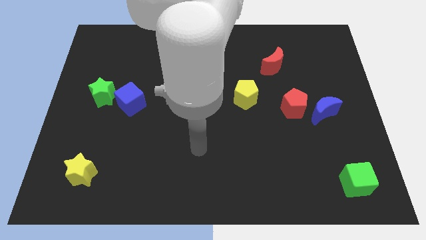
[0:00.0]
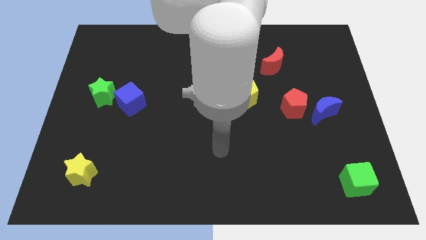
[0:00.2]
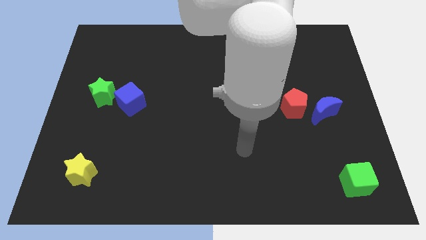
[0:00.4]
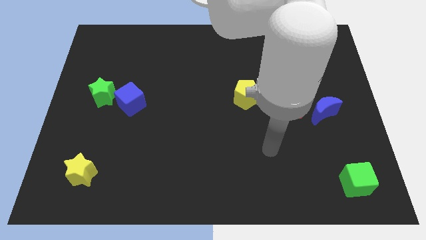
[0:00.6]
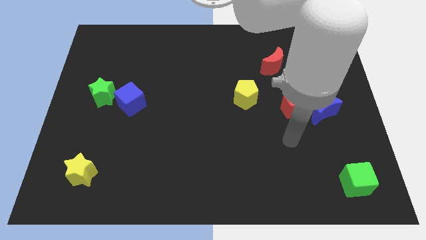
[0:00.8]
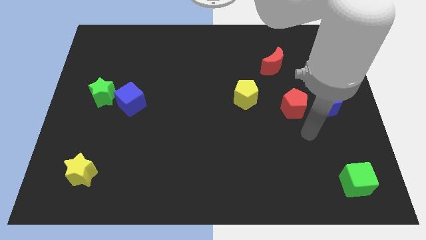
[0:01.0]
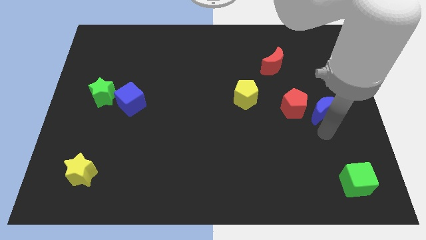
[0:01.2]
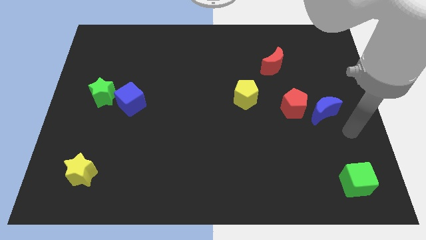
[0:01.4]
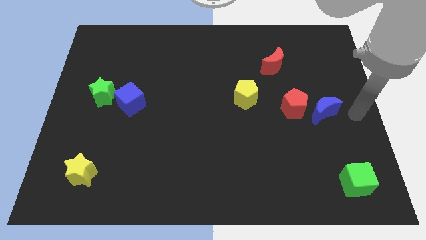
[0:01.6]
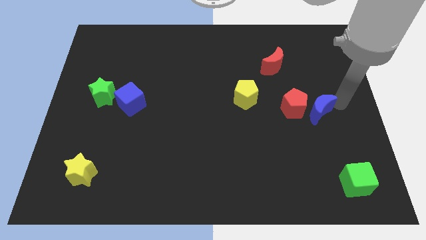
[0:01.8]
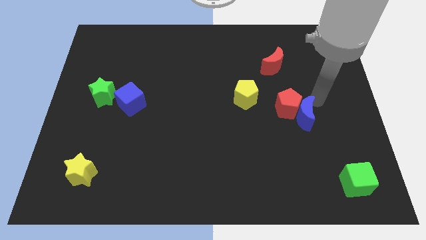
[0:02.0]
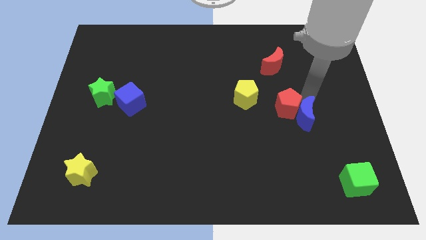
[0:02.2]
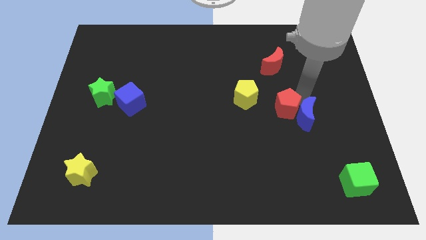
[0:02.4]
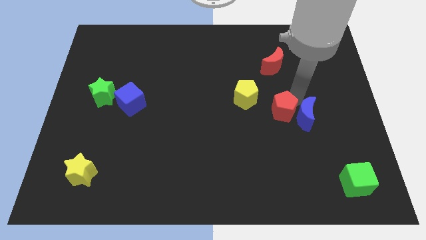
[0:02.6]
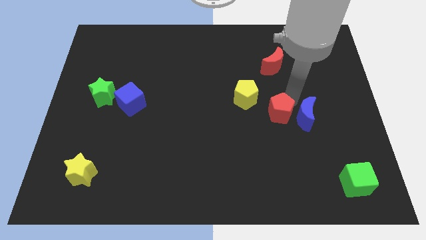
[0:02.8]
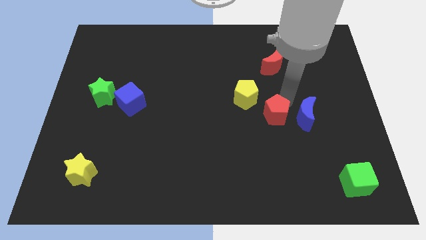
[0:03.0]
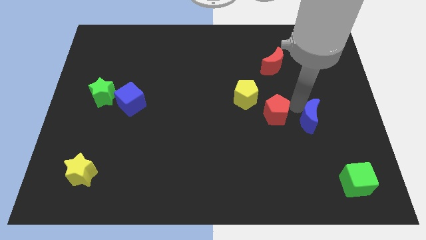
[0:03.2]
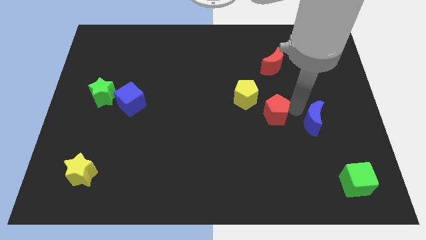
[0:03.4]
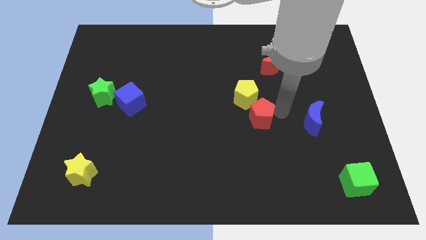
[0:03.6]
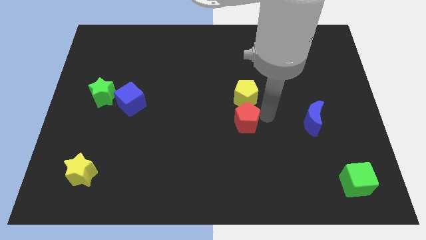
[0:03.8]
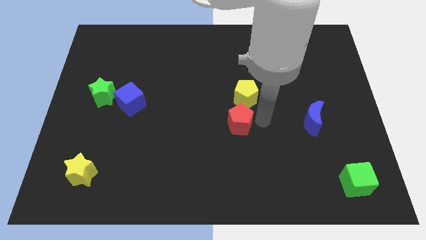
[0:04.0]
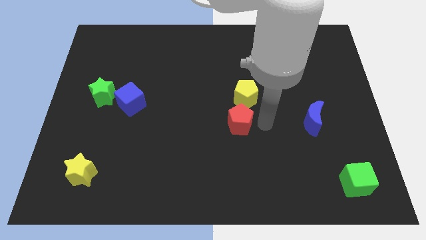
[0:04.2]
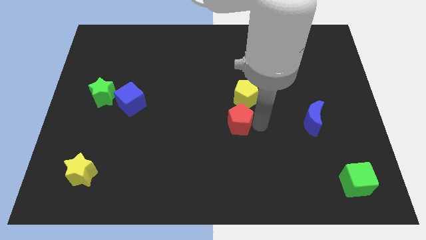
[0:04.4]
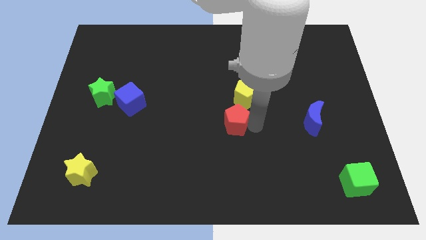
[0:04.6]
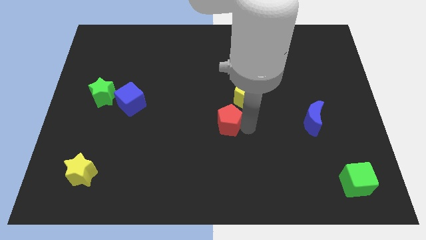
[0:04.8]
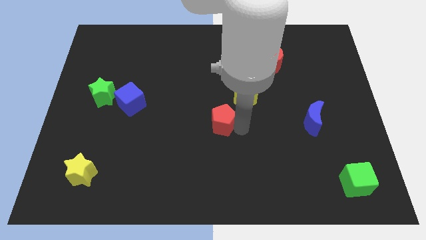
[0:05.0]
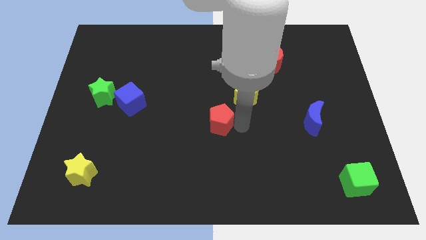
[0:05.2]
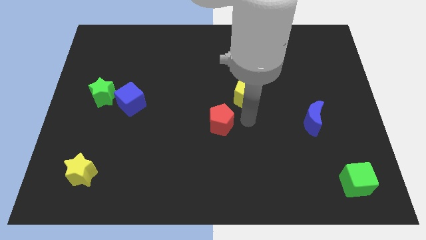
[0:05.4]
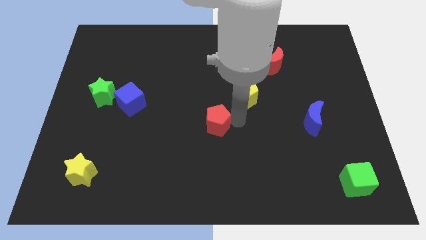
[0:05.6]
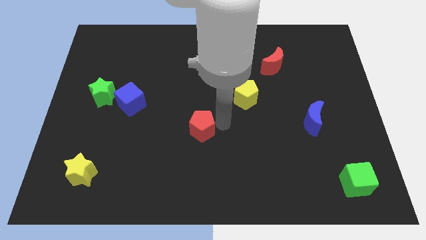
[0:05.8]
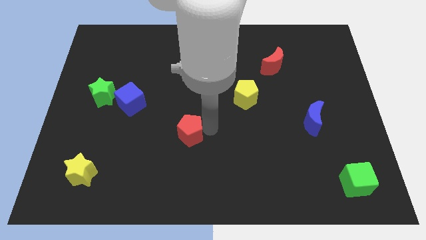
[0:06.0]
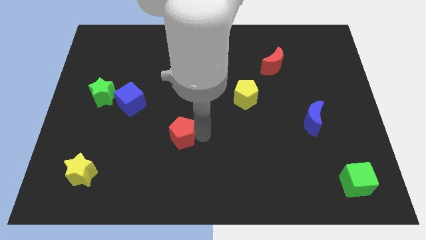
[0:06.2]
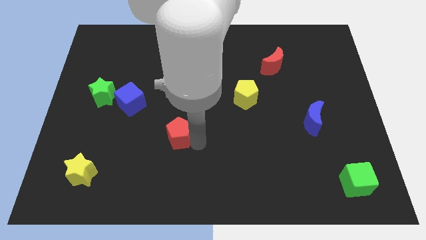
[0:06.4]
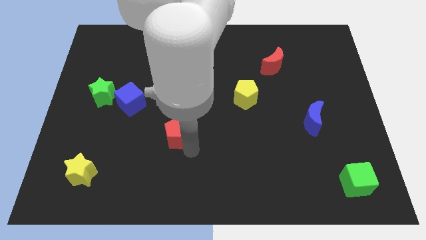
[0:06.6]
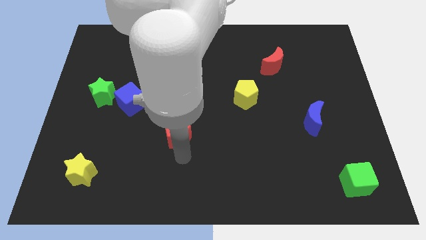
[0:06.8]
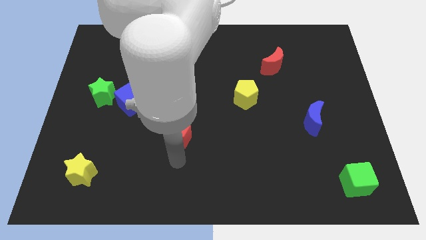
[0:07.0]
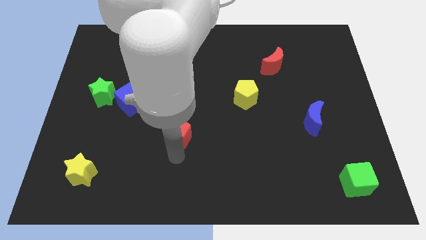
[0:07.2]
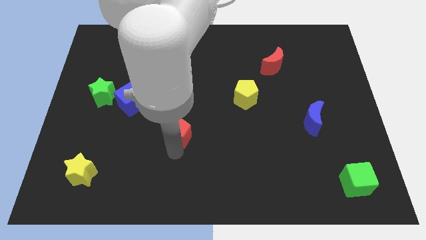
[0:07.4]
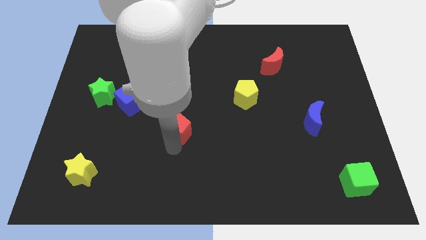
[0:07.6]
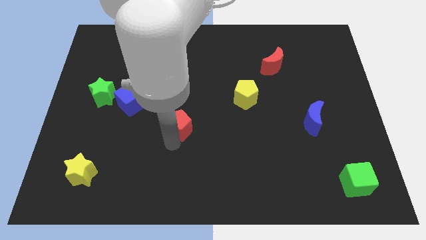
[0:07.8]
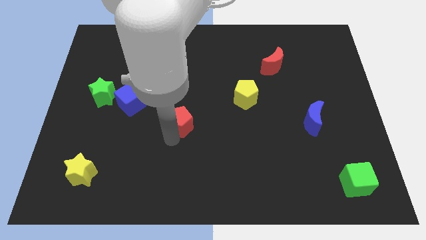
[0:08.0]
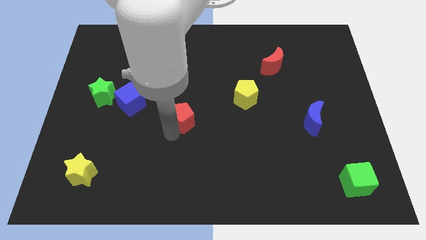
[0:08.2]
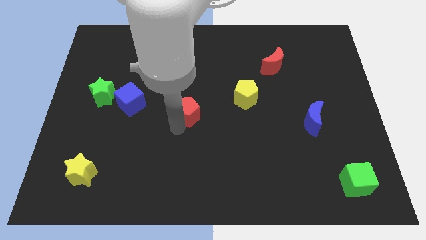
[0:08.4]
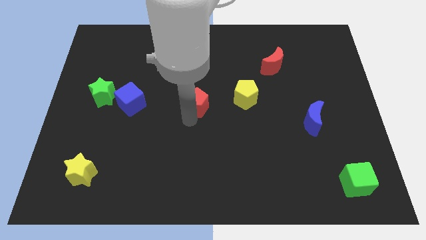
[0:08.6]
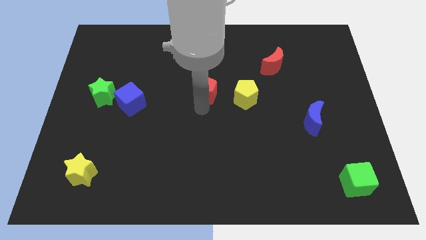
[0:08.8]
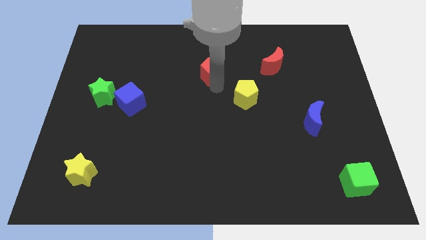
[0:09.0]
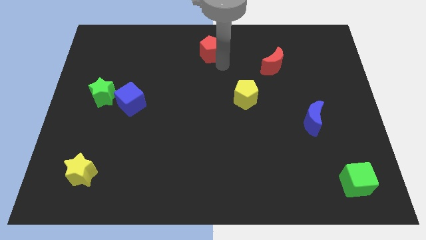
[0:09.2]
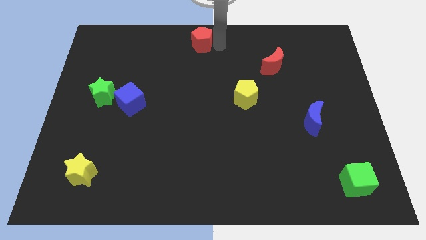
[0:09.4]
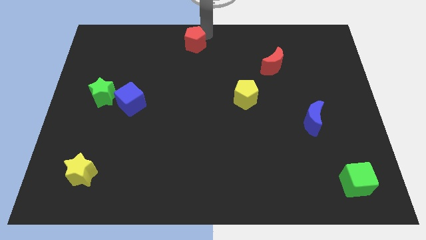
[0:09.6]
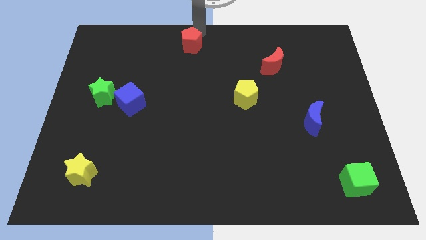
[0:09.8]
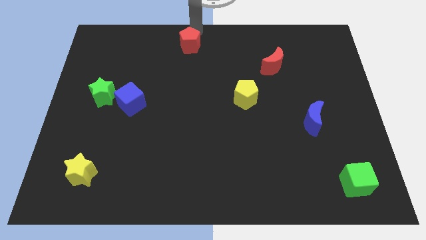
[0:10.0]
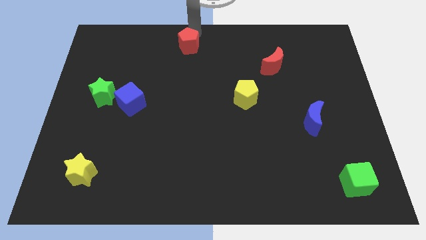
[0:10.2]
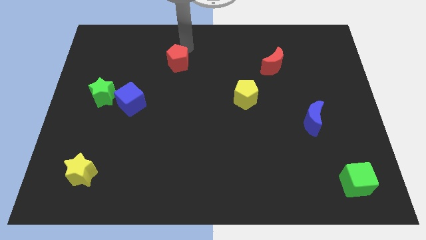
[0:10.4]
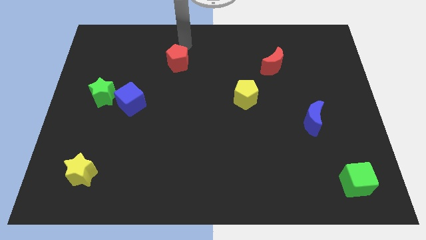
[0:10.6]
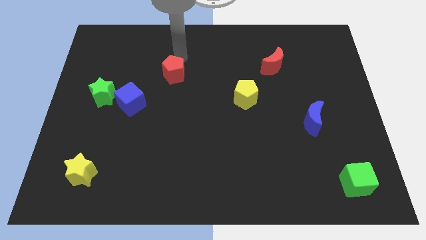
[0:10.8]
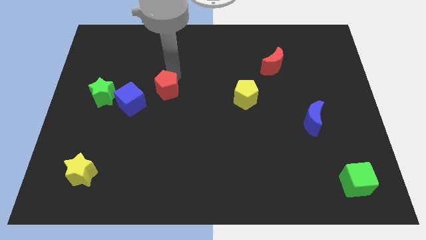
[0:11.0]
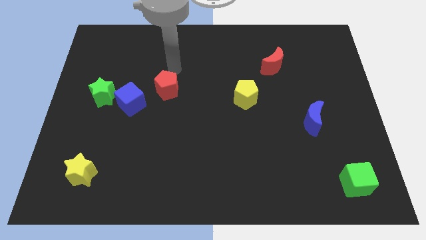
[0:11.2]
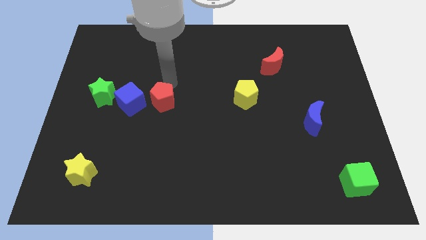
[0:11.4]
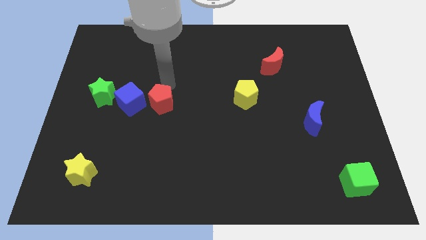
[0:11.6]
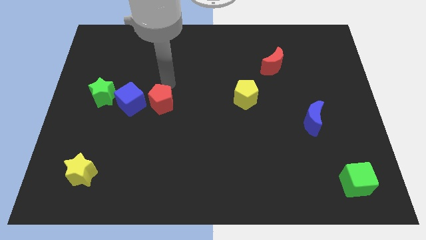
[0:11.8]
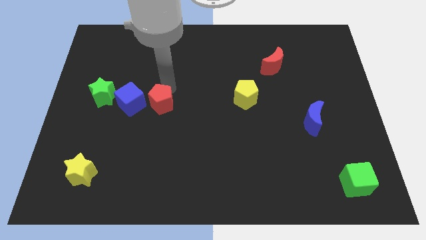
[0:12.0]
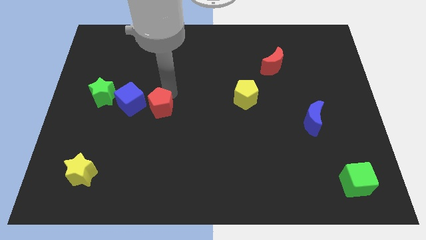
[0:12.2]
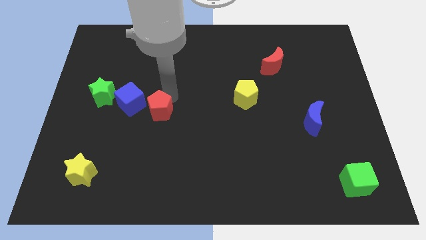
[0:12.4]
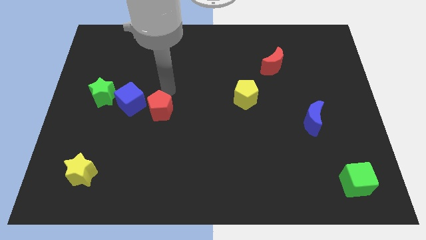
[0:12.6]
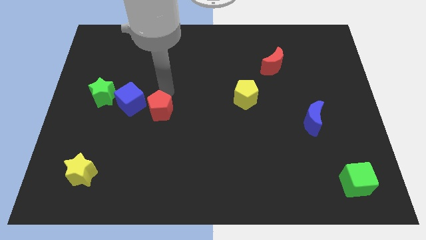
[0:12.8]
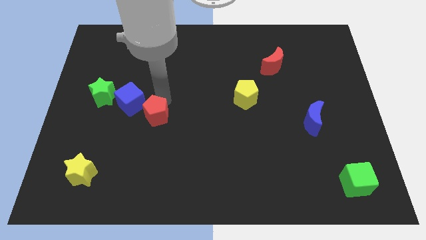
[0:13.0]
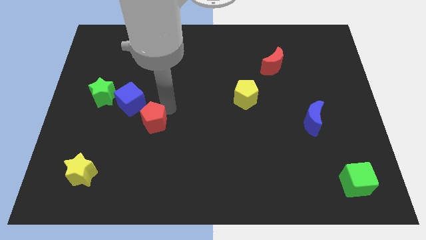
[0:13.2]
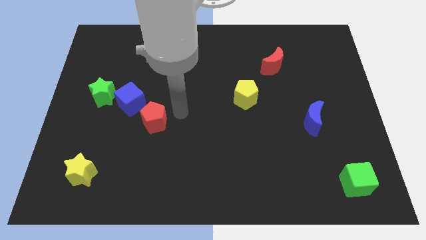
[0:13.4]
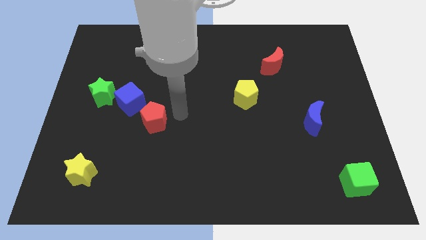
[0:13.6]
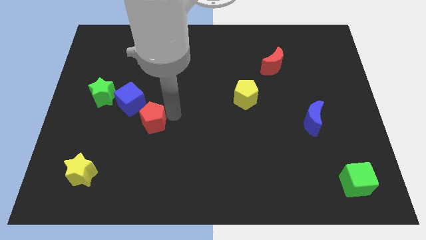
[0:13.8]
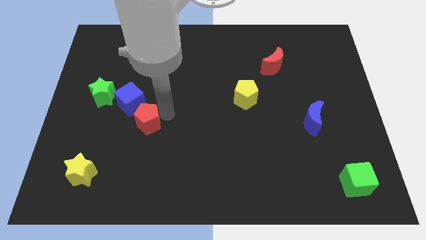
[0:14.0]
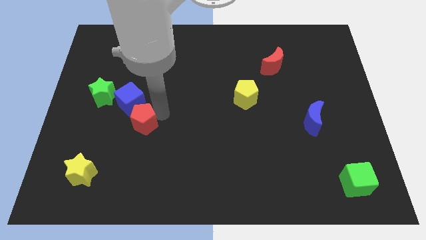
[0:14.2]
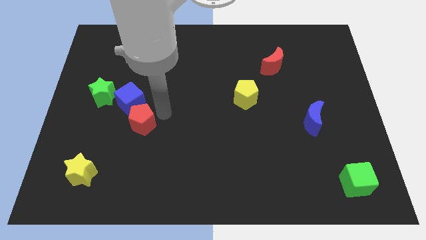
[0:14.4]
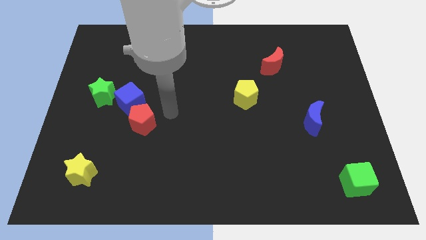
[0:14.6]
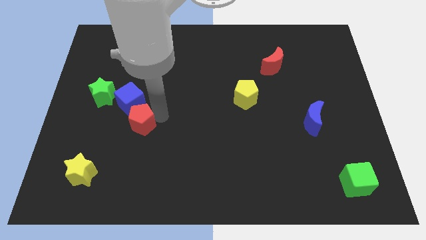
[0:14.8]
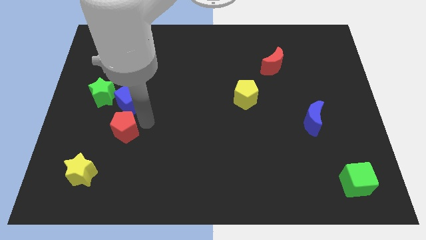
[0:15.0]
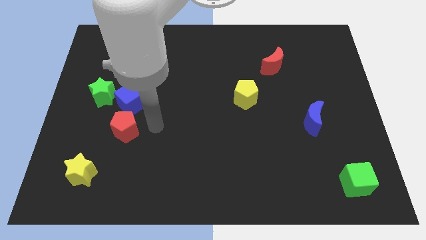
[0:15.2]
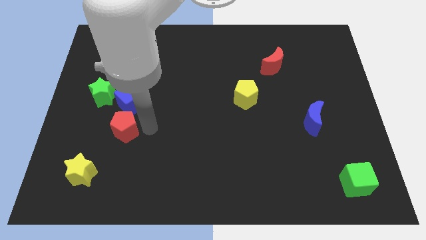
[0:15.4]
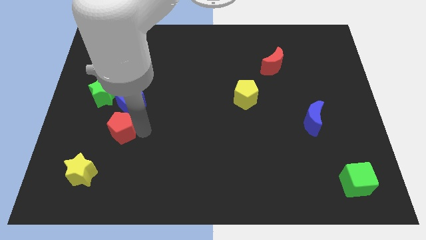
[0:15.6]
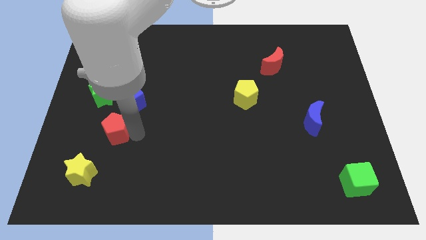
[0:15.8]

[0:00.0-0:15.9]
put the red pentagon below the green star
